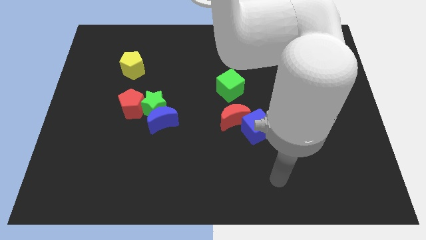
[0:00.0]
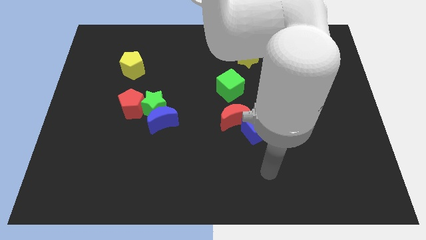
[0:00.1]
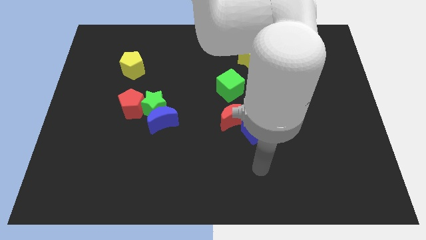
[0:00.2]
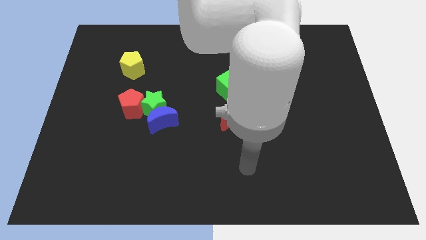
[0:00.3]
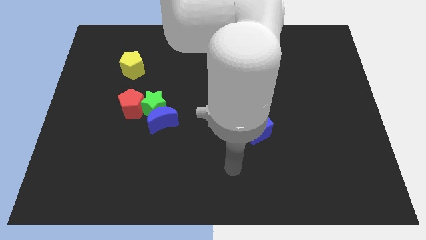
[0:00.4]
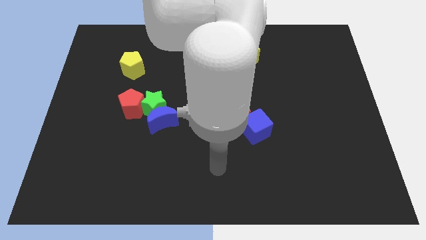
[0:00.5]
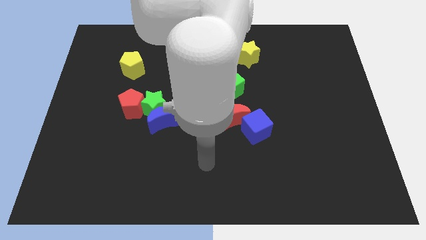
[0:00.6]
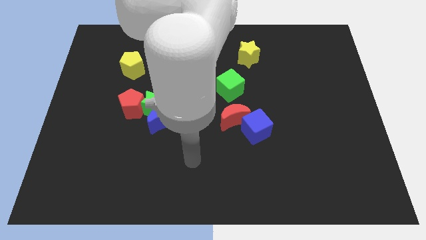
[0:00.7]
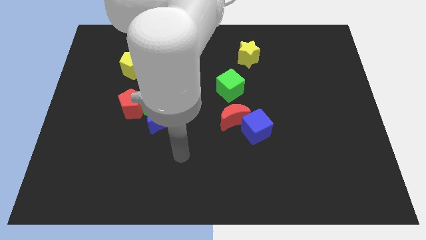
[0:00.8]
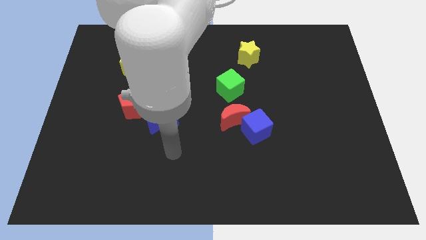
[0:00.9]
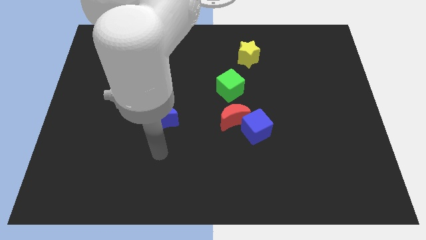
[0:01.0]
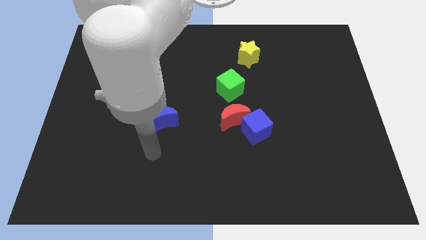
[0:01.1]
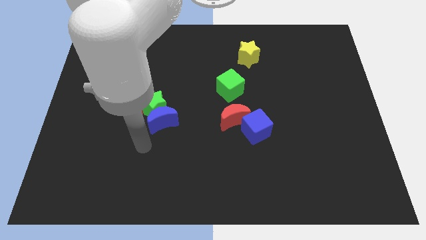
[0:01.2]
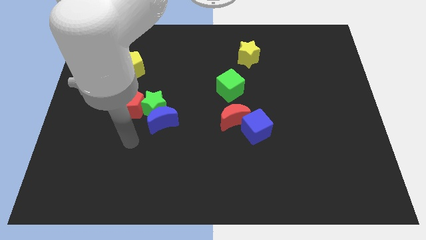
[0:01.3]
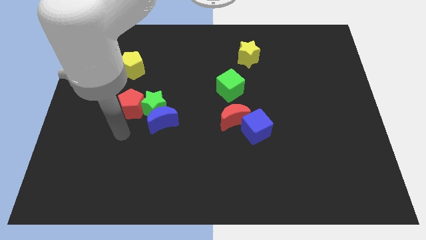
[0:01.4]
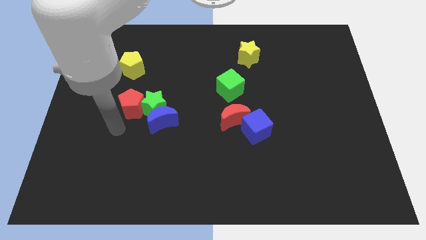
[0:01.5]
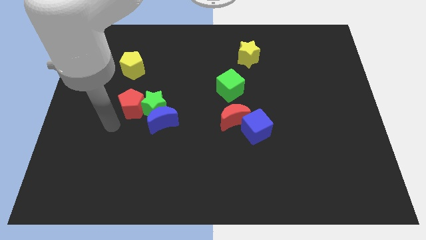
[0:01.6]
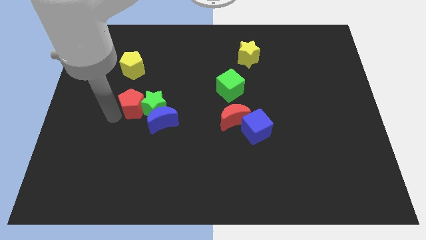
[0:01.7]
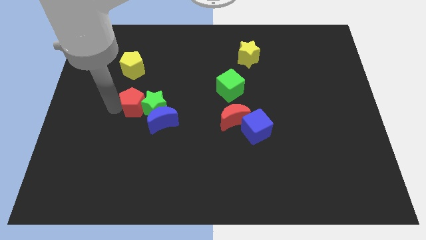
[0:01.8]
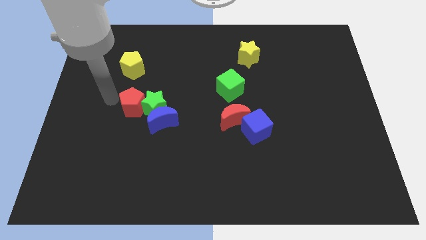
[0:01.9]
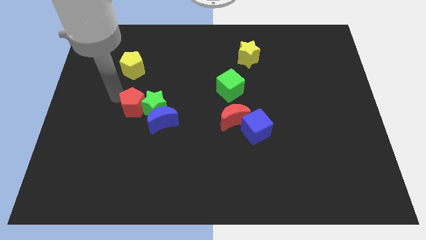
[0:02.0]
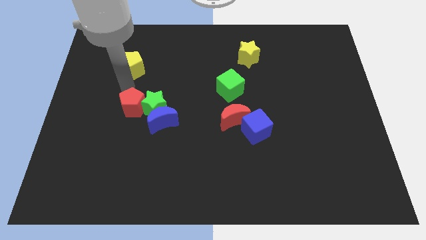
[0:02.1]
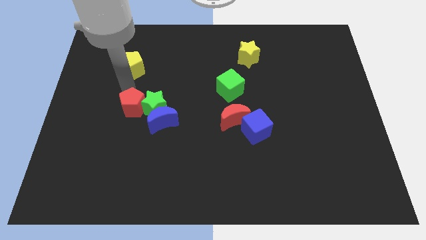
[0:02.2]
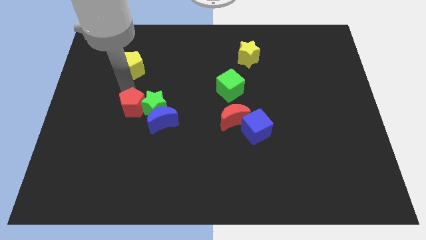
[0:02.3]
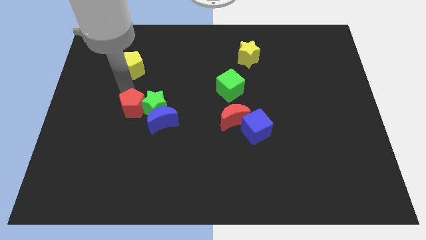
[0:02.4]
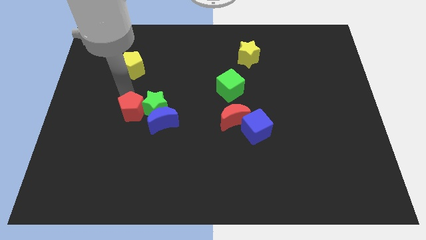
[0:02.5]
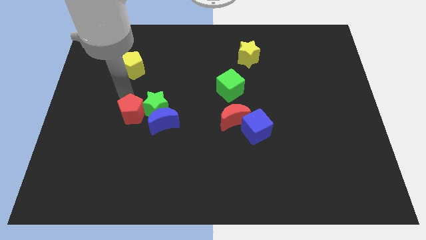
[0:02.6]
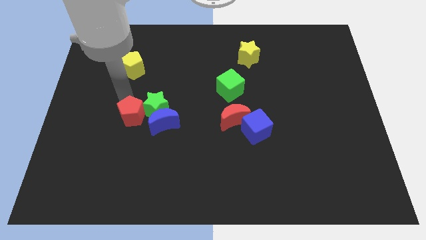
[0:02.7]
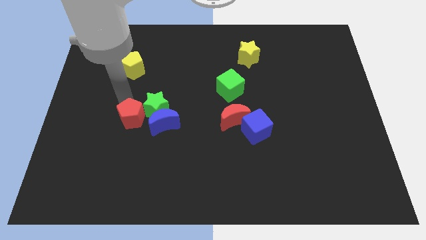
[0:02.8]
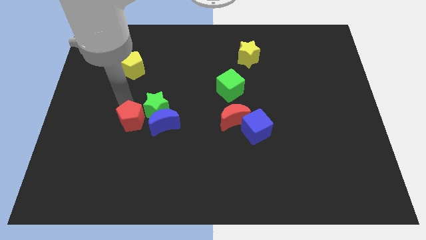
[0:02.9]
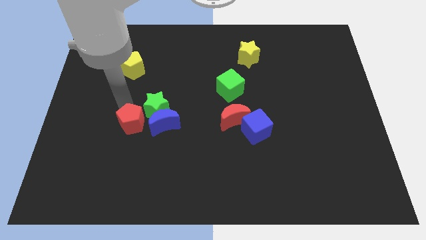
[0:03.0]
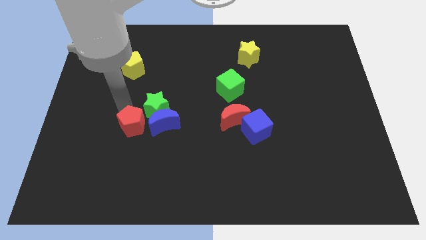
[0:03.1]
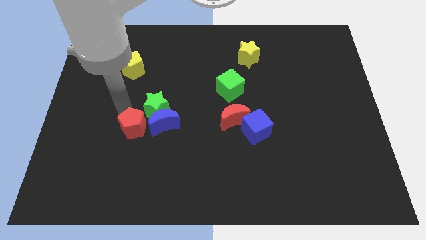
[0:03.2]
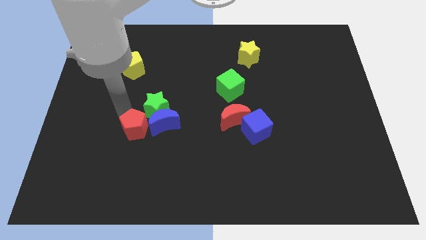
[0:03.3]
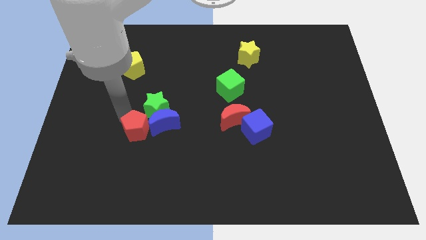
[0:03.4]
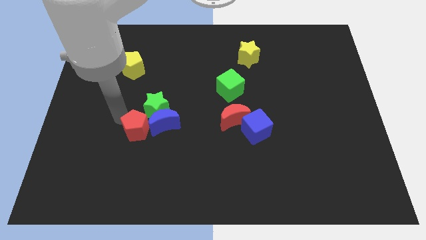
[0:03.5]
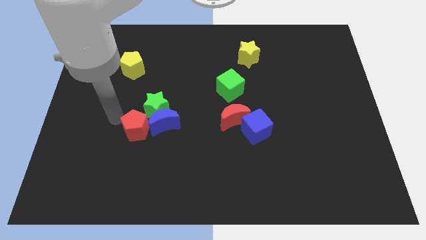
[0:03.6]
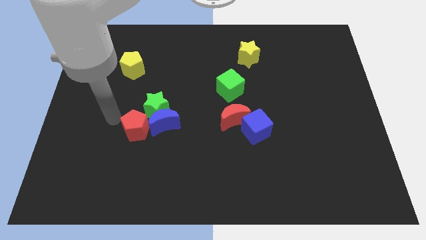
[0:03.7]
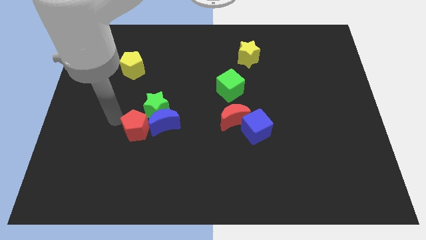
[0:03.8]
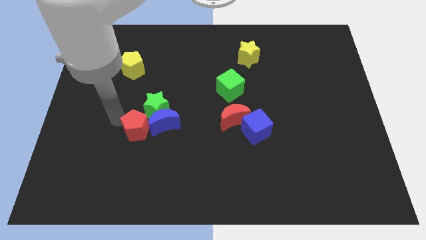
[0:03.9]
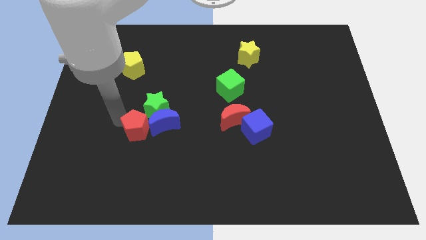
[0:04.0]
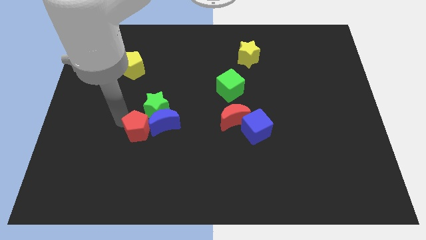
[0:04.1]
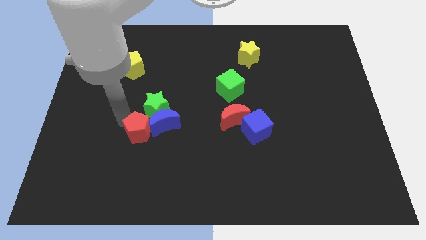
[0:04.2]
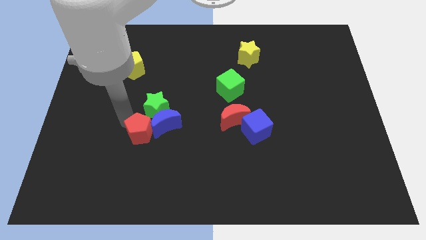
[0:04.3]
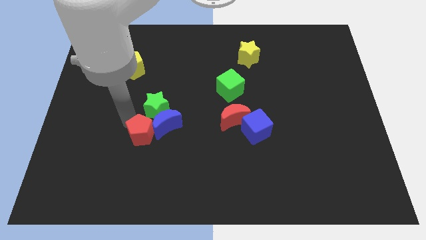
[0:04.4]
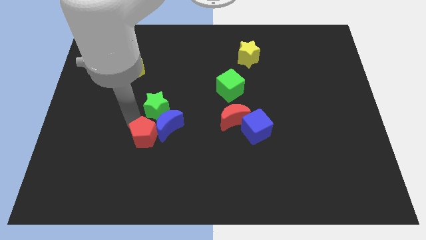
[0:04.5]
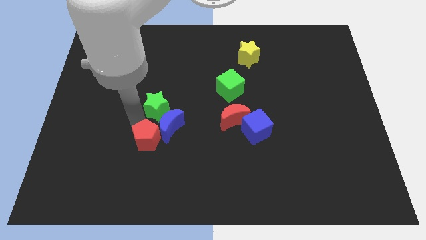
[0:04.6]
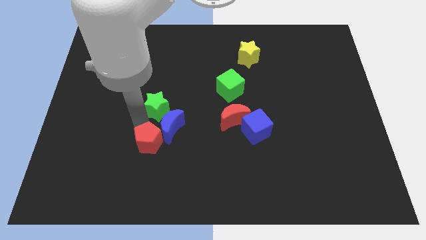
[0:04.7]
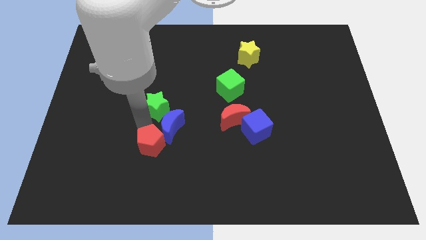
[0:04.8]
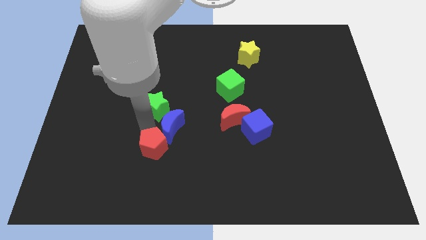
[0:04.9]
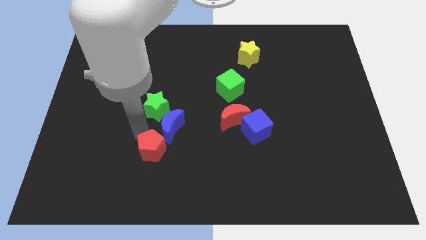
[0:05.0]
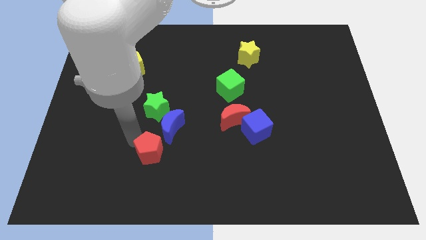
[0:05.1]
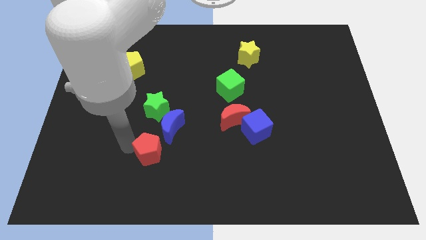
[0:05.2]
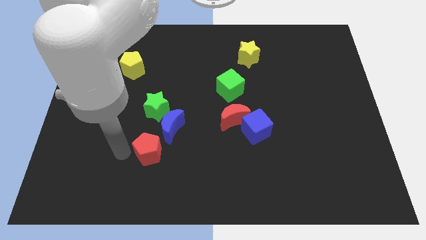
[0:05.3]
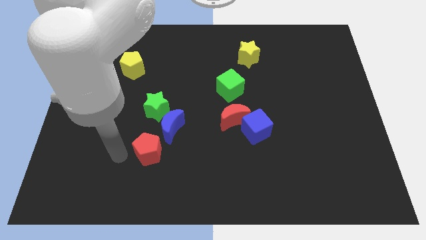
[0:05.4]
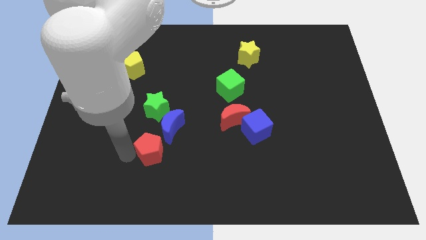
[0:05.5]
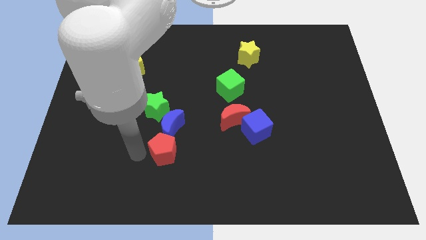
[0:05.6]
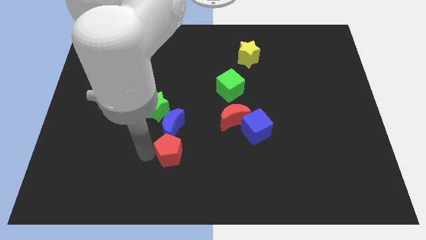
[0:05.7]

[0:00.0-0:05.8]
push the red pentagon to the bottom right of the blue moon

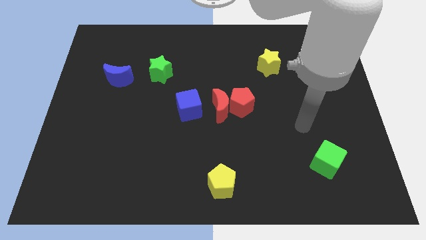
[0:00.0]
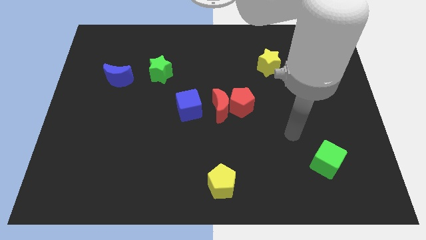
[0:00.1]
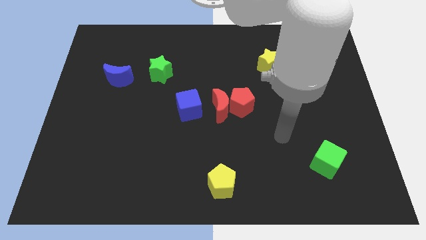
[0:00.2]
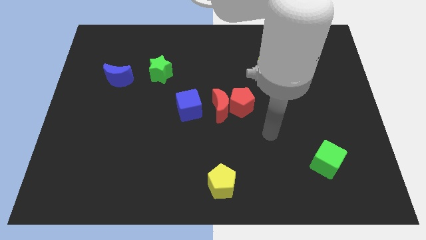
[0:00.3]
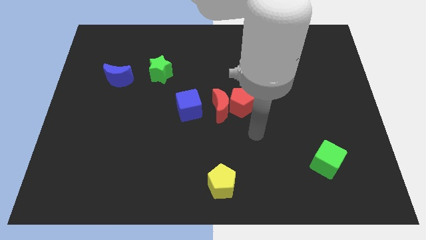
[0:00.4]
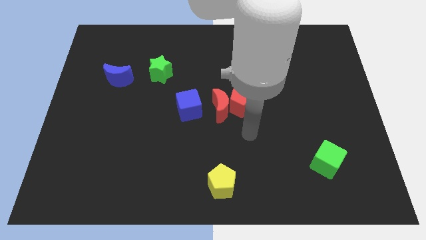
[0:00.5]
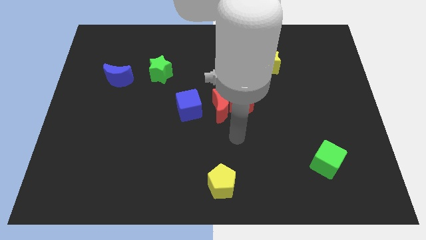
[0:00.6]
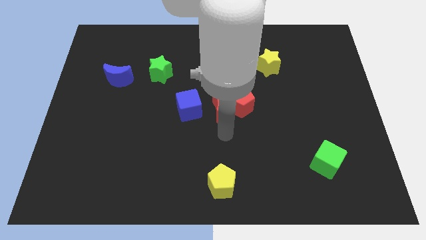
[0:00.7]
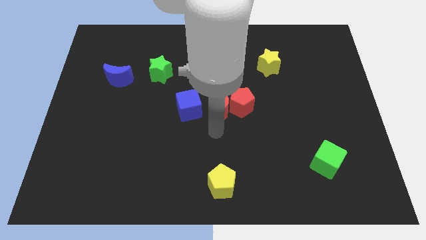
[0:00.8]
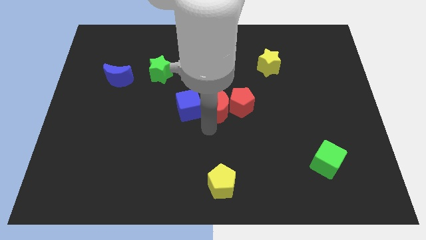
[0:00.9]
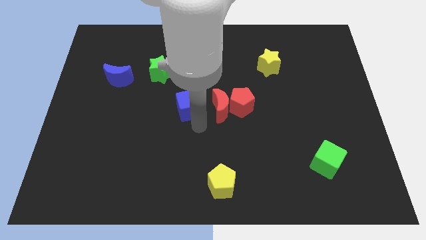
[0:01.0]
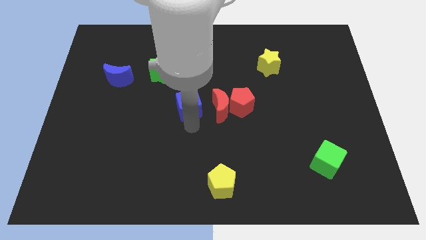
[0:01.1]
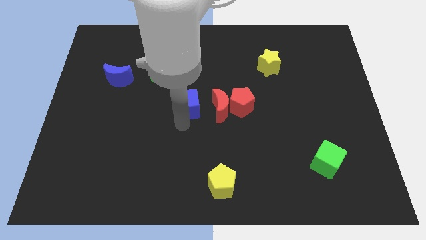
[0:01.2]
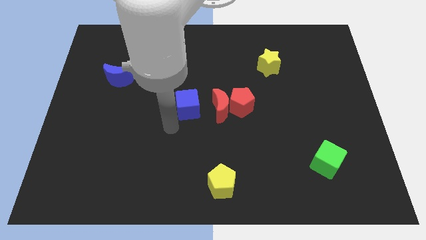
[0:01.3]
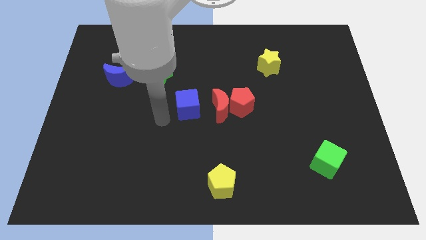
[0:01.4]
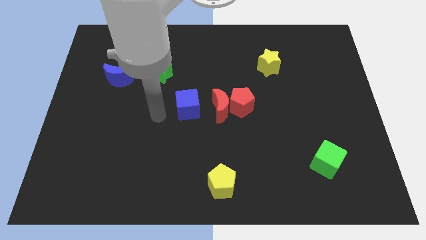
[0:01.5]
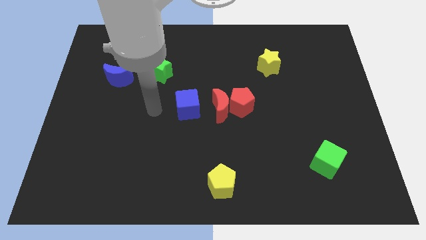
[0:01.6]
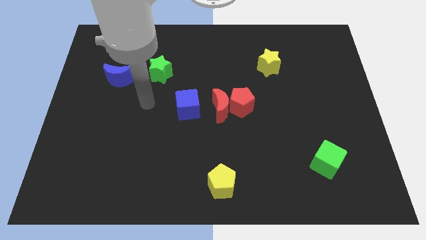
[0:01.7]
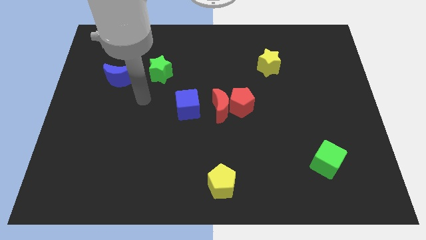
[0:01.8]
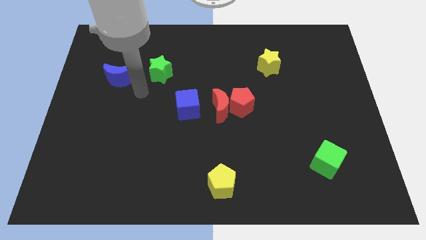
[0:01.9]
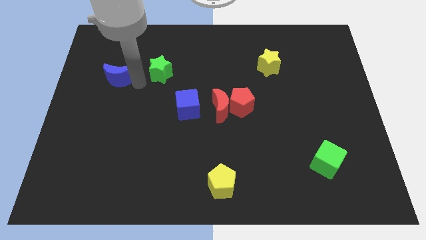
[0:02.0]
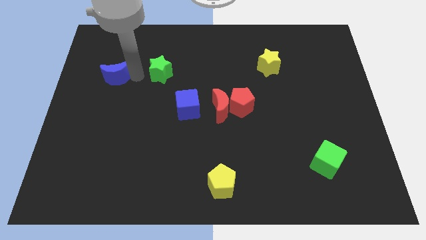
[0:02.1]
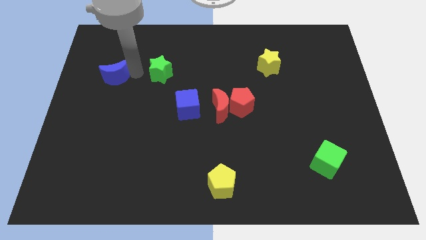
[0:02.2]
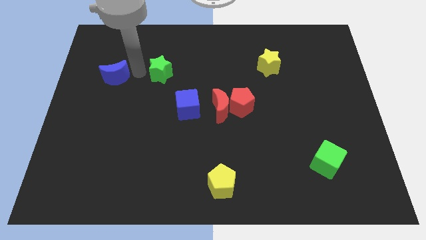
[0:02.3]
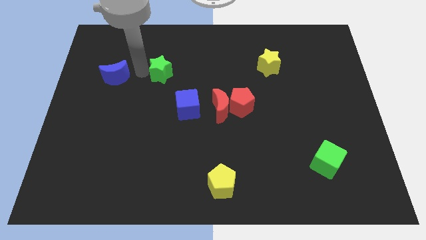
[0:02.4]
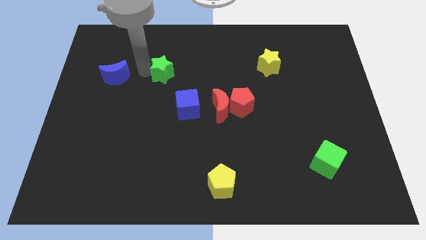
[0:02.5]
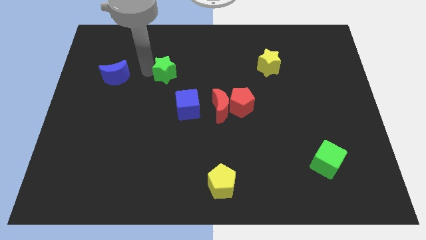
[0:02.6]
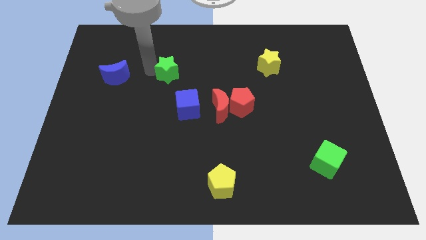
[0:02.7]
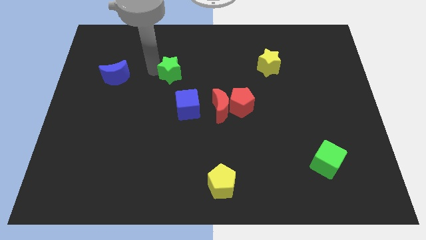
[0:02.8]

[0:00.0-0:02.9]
slide the green star to the top side of the blue cube
